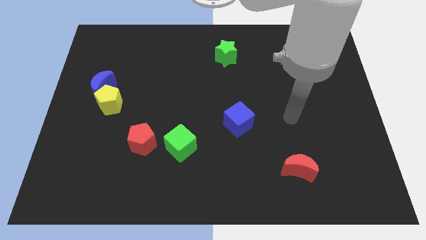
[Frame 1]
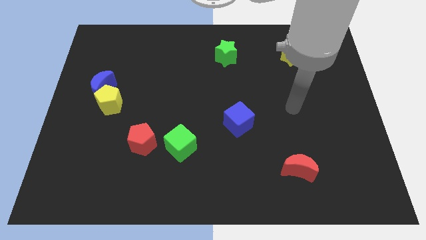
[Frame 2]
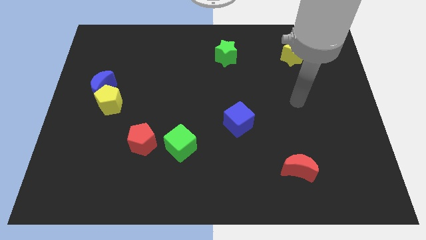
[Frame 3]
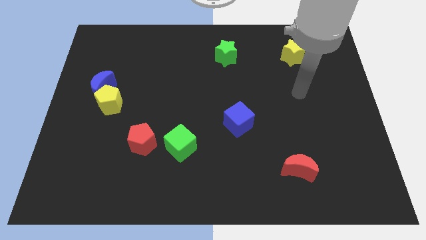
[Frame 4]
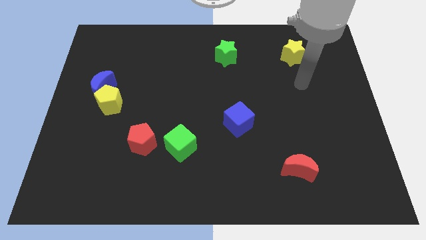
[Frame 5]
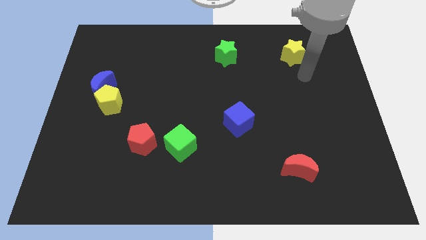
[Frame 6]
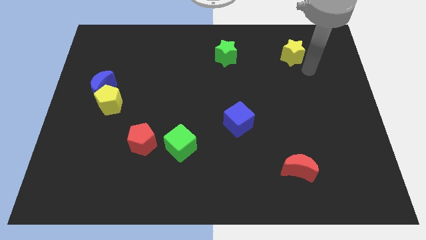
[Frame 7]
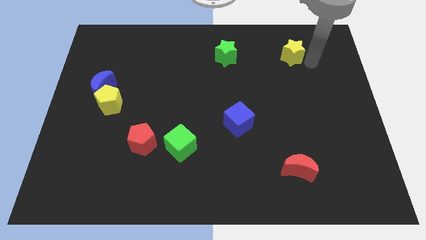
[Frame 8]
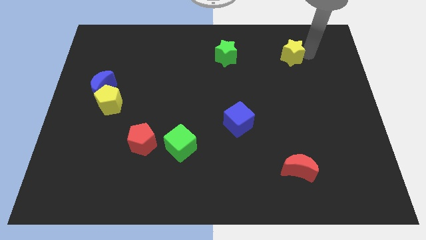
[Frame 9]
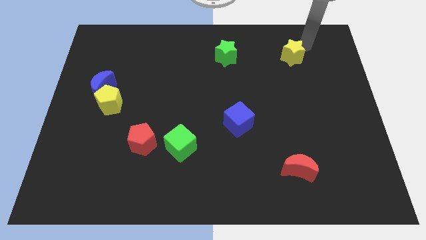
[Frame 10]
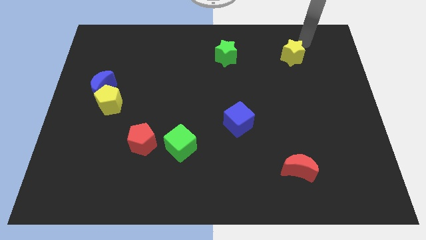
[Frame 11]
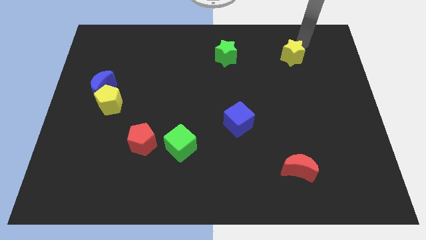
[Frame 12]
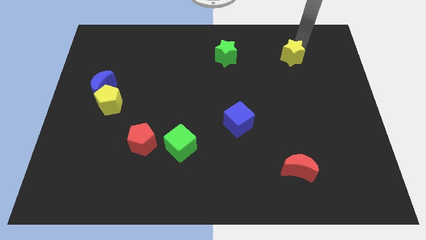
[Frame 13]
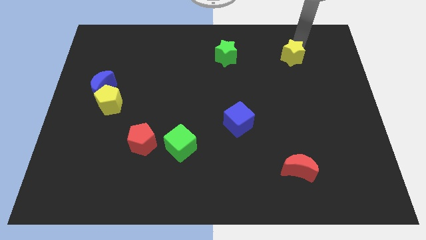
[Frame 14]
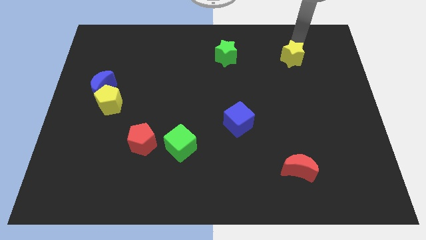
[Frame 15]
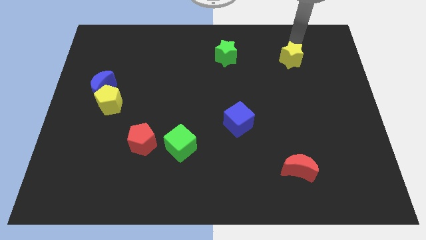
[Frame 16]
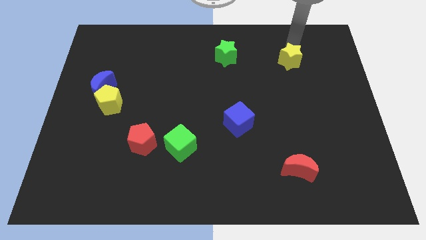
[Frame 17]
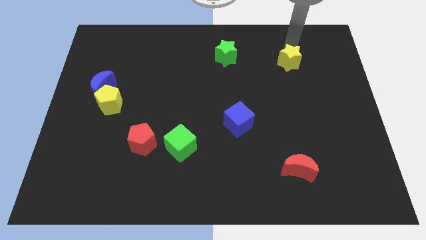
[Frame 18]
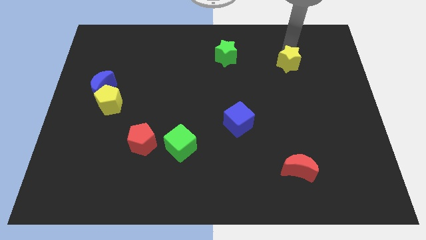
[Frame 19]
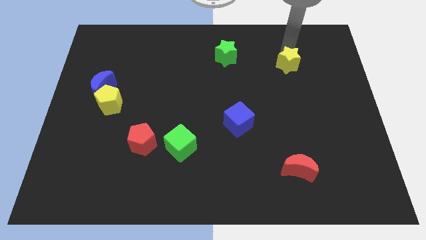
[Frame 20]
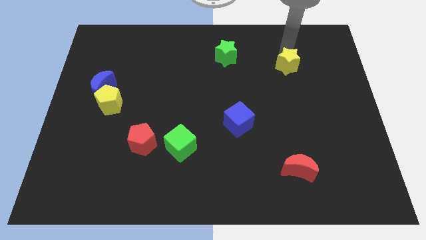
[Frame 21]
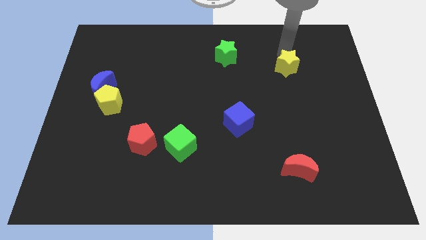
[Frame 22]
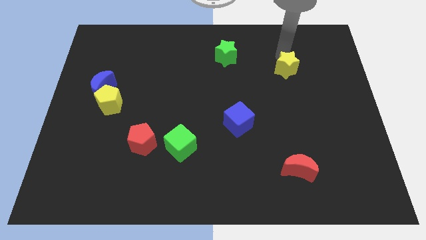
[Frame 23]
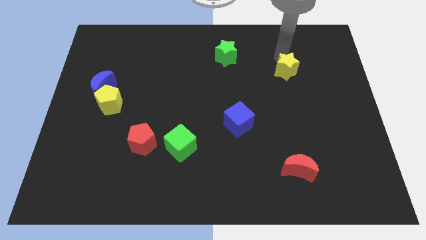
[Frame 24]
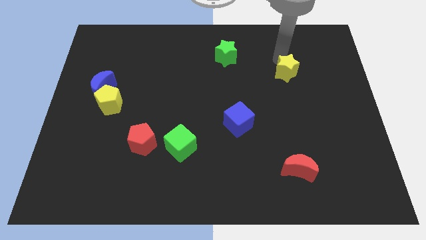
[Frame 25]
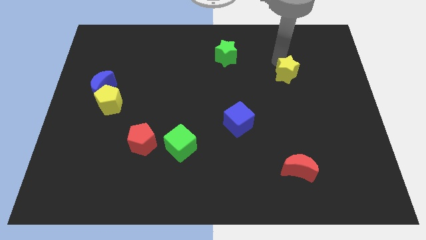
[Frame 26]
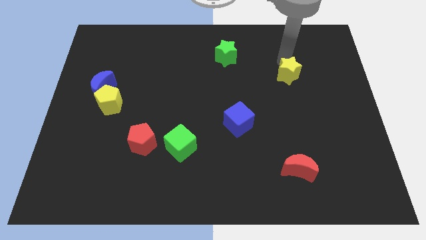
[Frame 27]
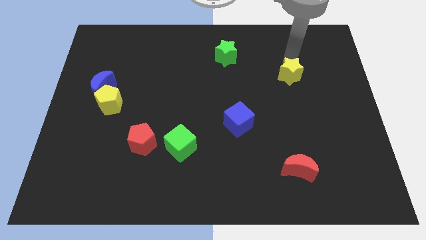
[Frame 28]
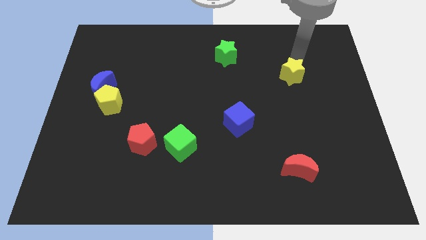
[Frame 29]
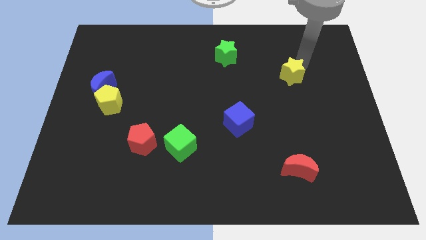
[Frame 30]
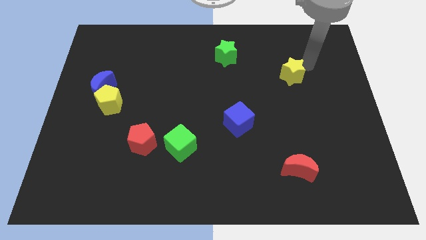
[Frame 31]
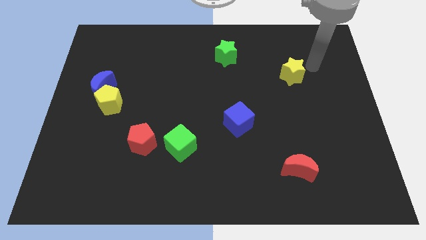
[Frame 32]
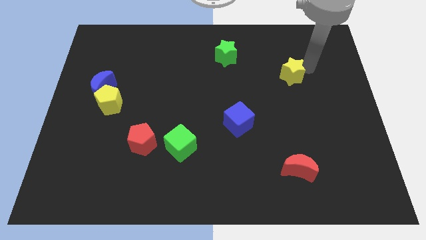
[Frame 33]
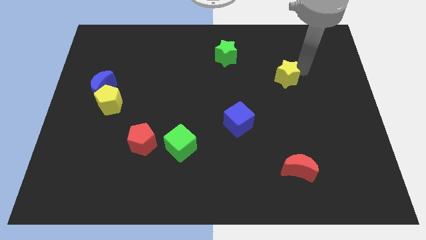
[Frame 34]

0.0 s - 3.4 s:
push the yellow star slightly downwards and then left

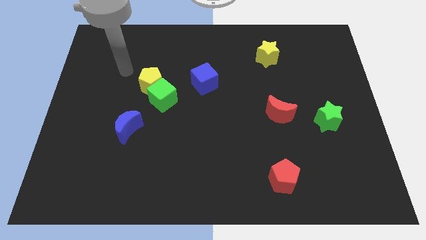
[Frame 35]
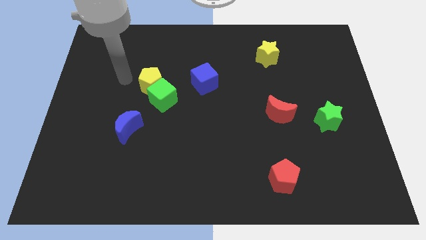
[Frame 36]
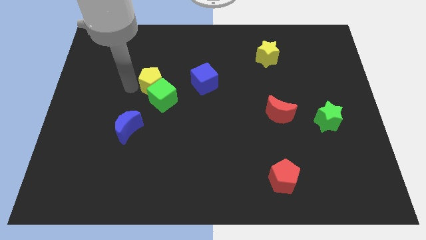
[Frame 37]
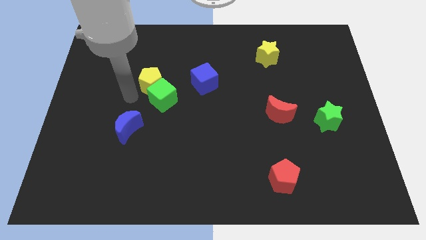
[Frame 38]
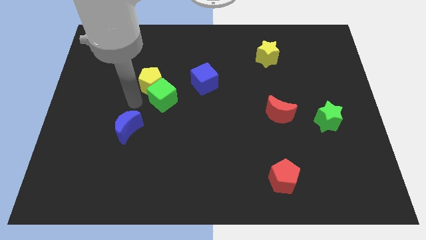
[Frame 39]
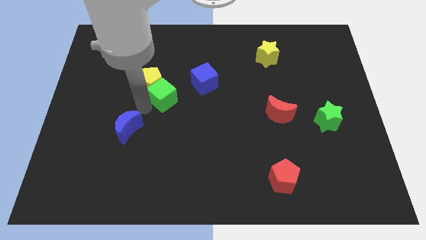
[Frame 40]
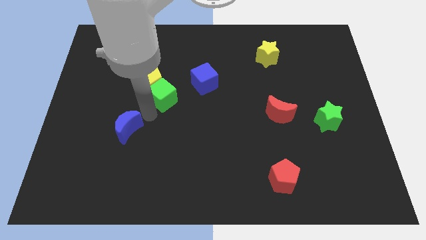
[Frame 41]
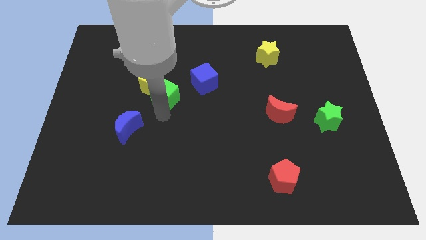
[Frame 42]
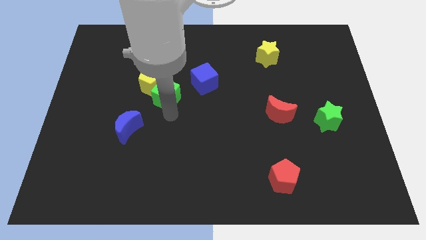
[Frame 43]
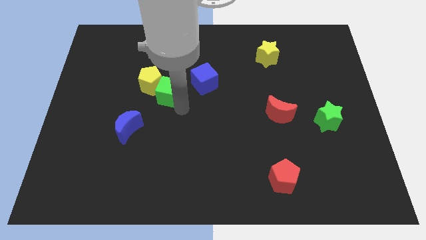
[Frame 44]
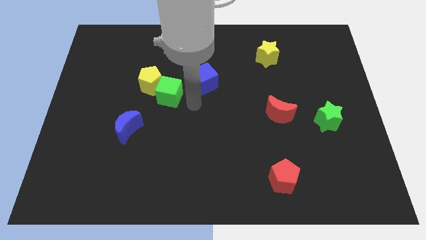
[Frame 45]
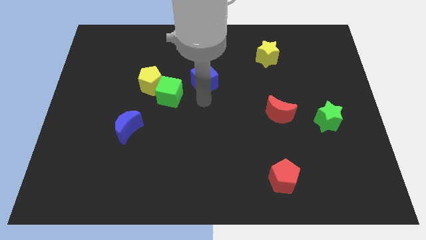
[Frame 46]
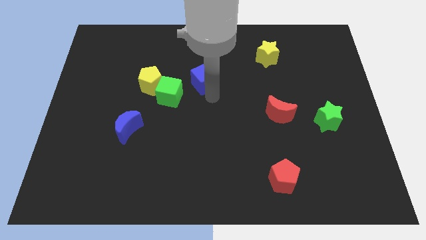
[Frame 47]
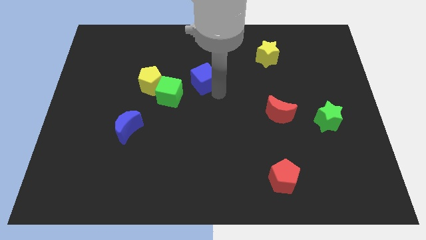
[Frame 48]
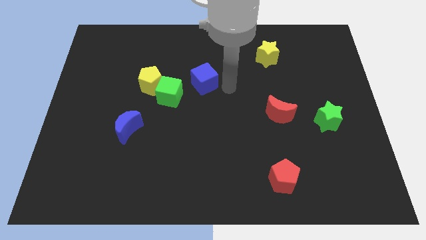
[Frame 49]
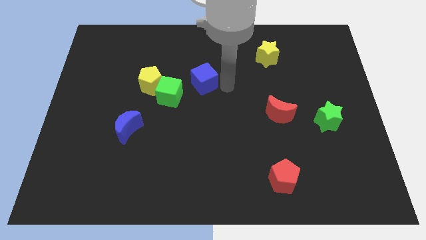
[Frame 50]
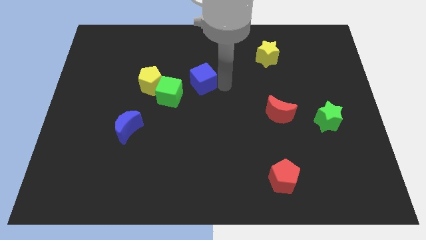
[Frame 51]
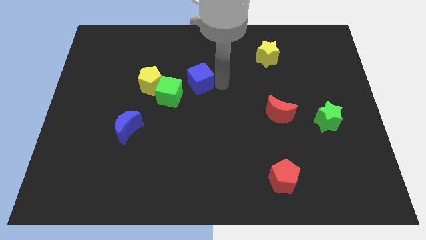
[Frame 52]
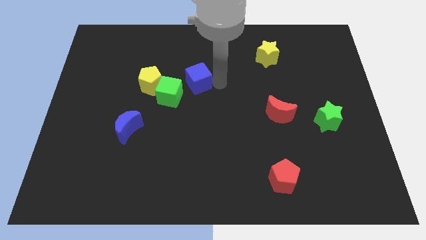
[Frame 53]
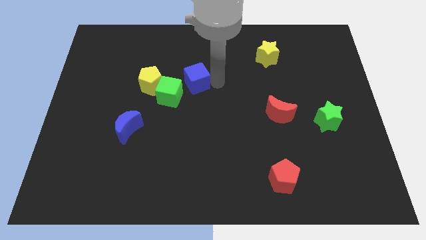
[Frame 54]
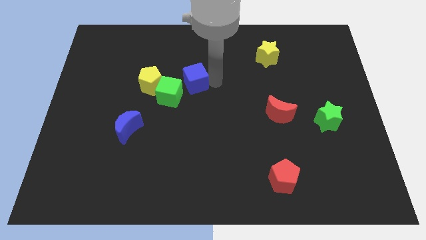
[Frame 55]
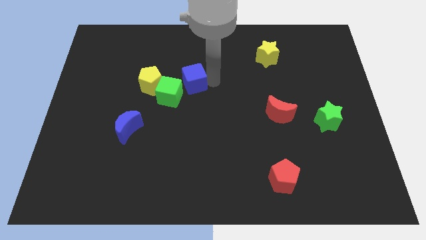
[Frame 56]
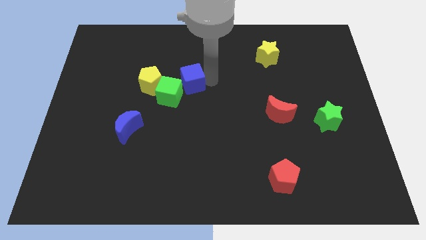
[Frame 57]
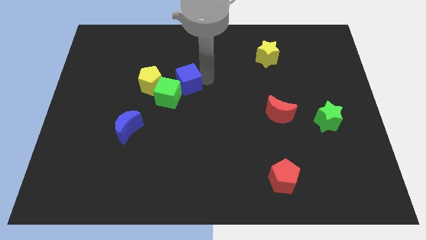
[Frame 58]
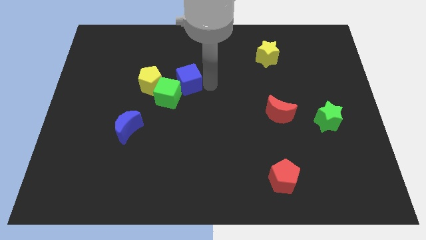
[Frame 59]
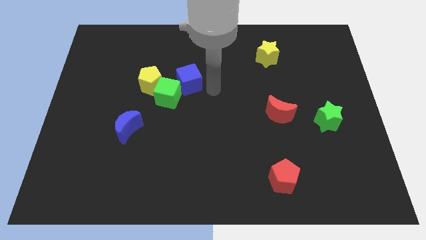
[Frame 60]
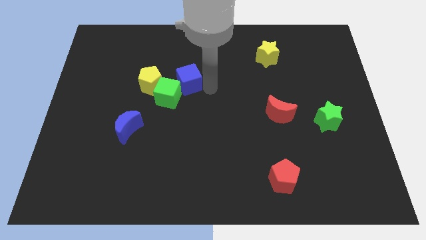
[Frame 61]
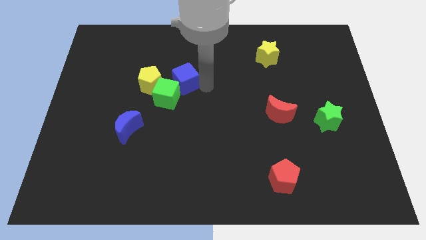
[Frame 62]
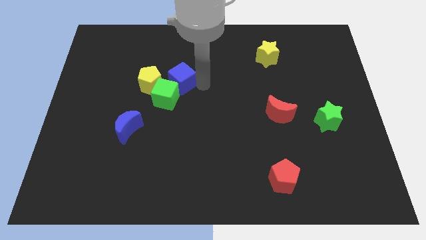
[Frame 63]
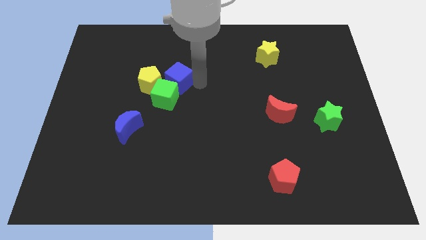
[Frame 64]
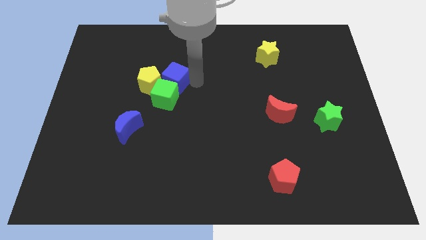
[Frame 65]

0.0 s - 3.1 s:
push the blue cube to the left a little bit

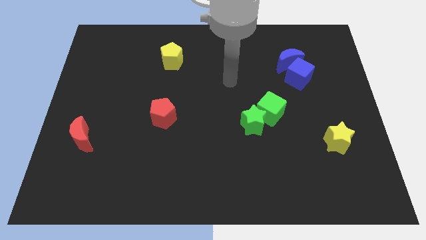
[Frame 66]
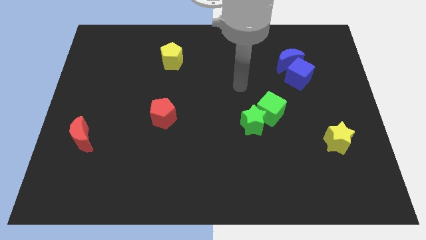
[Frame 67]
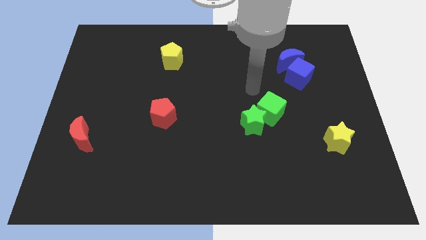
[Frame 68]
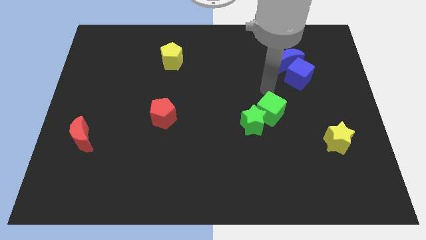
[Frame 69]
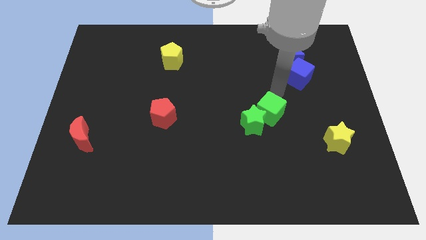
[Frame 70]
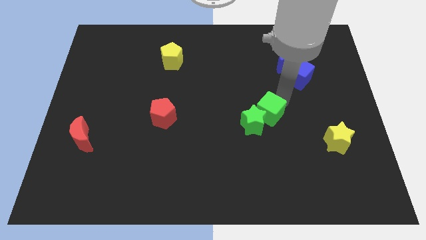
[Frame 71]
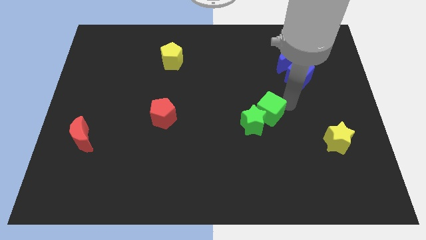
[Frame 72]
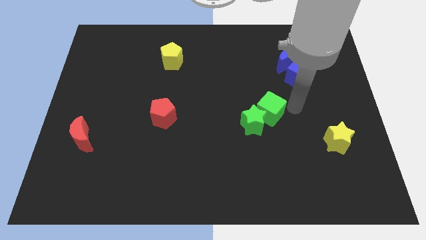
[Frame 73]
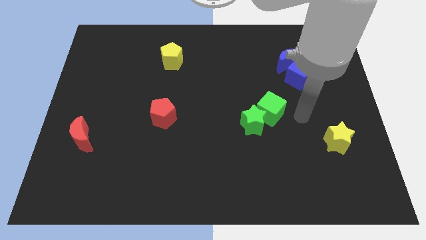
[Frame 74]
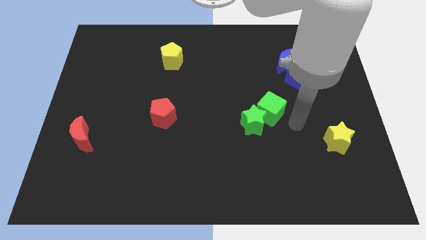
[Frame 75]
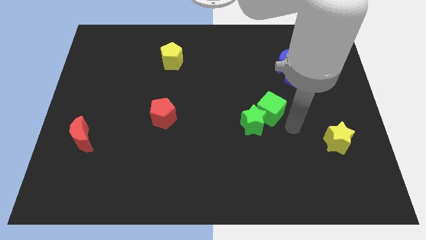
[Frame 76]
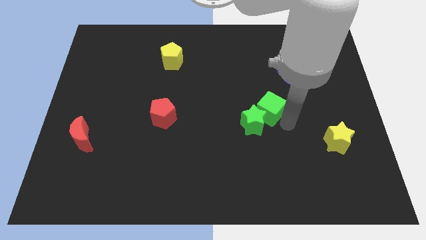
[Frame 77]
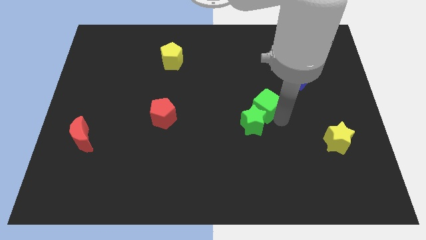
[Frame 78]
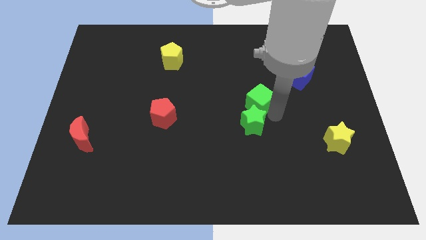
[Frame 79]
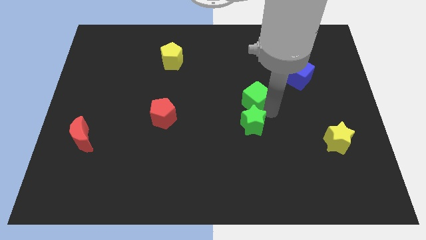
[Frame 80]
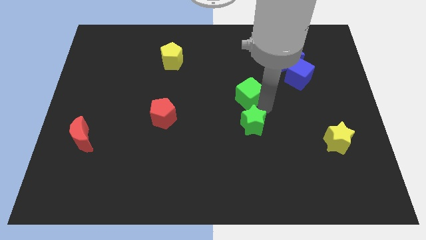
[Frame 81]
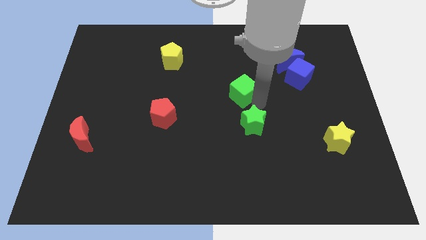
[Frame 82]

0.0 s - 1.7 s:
slide the green cube a little up and left
